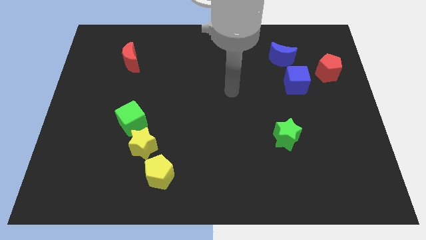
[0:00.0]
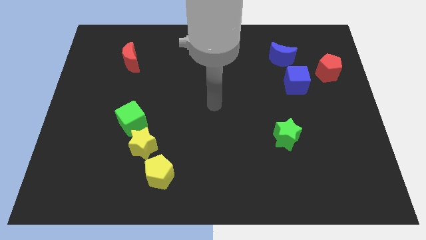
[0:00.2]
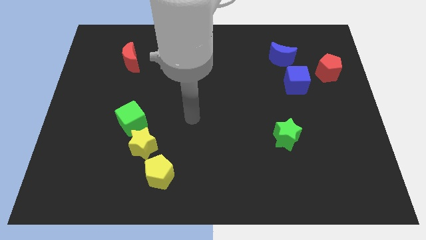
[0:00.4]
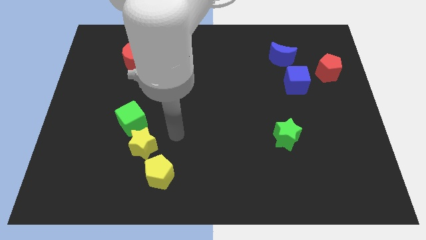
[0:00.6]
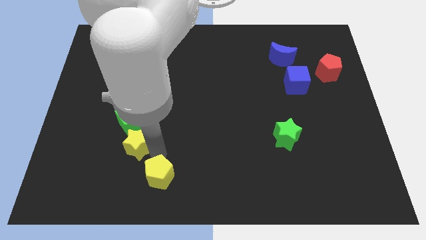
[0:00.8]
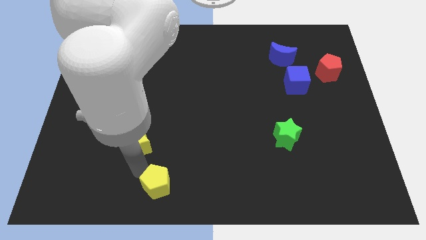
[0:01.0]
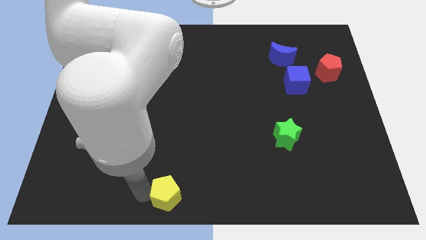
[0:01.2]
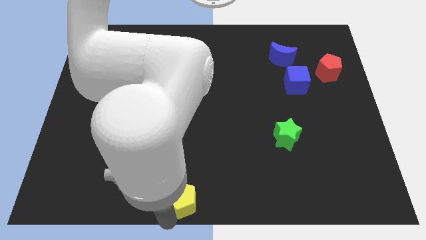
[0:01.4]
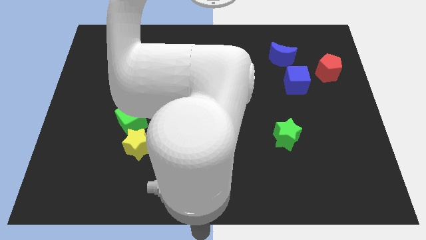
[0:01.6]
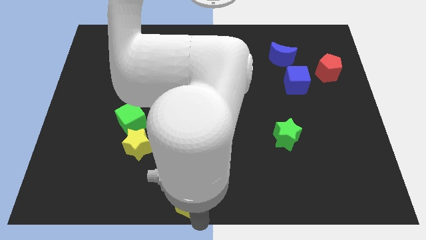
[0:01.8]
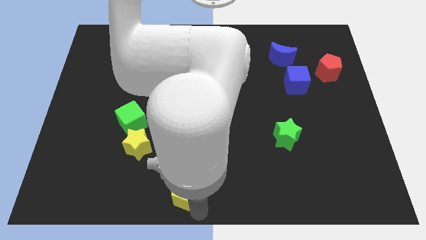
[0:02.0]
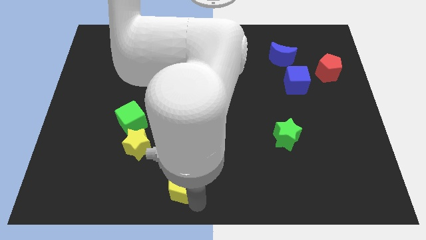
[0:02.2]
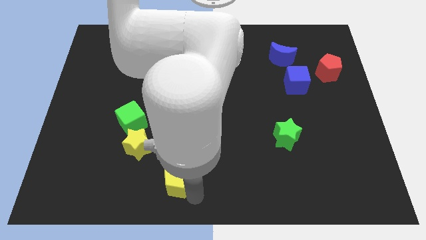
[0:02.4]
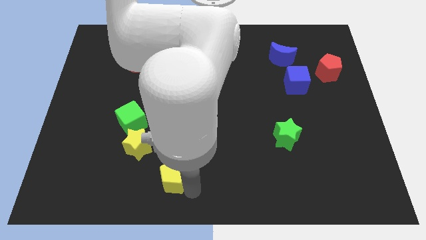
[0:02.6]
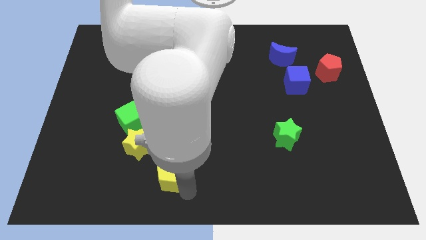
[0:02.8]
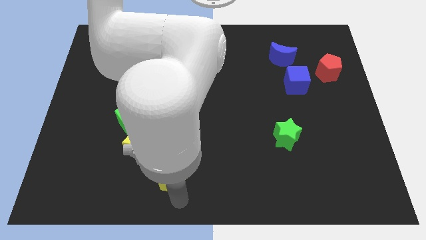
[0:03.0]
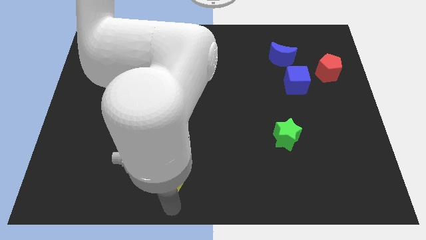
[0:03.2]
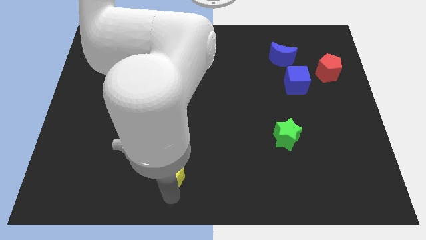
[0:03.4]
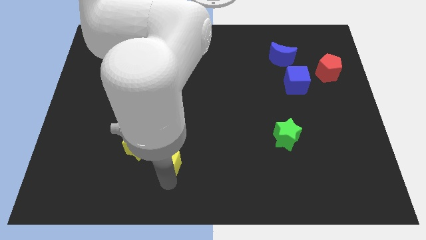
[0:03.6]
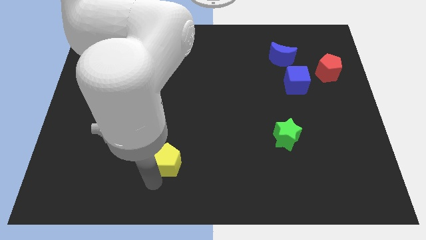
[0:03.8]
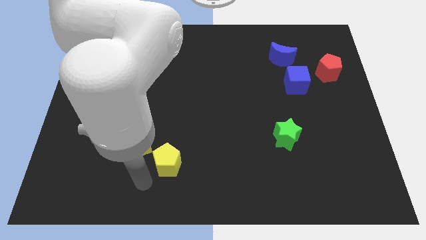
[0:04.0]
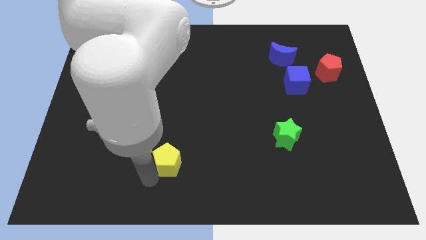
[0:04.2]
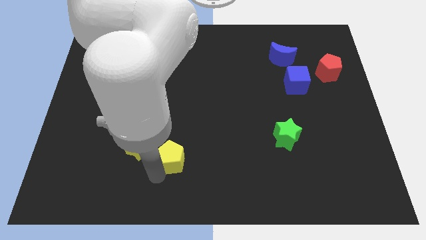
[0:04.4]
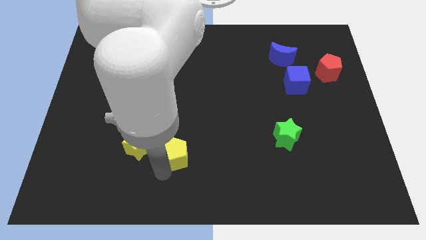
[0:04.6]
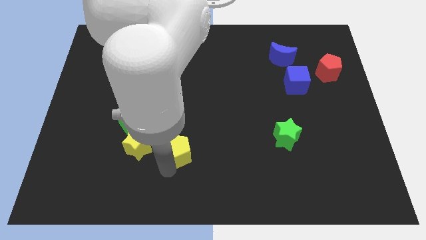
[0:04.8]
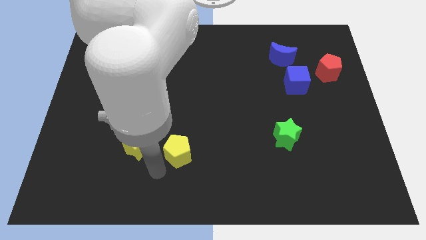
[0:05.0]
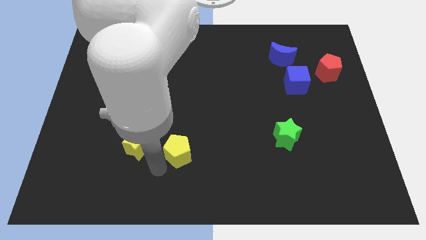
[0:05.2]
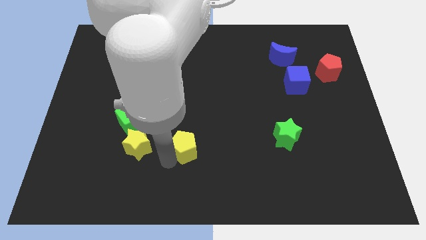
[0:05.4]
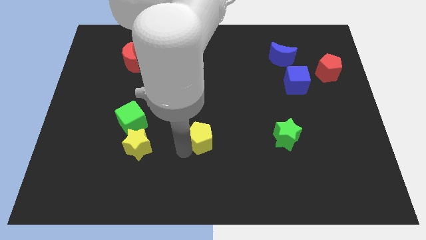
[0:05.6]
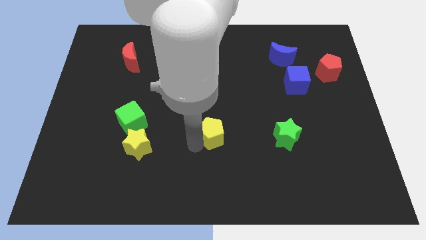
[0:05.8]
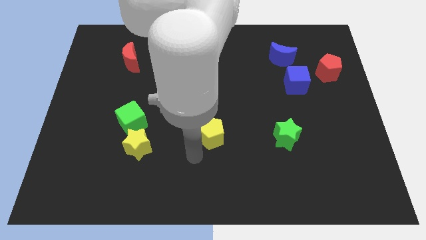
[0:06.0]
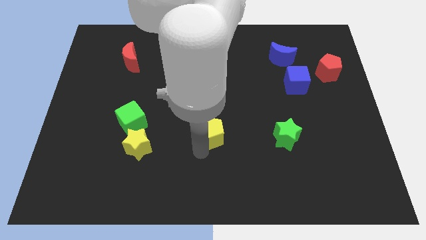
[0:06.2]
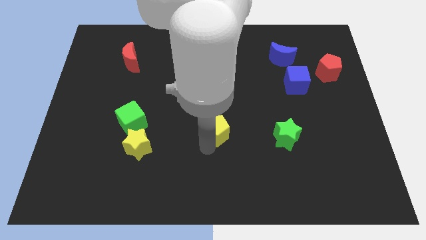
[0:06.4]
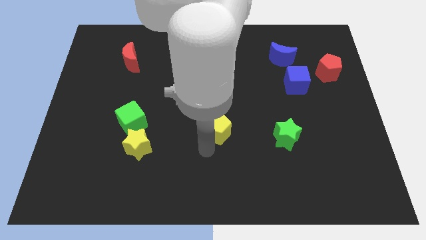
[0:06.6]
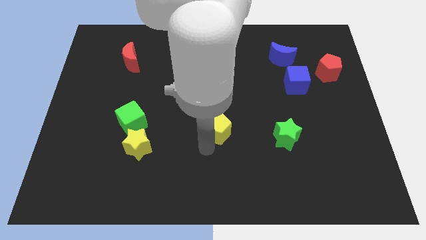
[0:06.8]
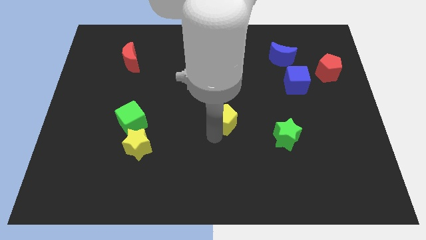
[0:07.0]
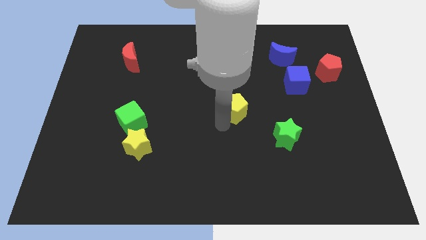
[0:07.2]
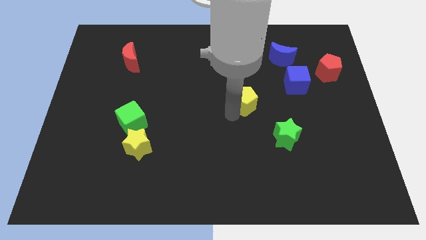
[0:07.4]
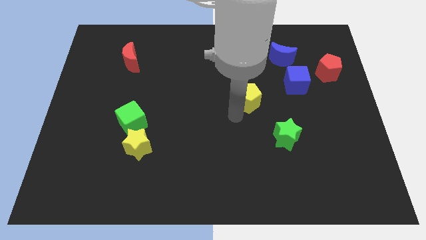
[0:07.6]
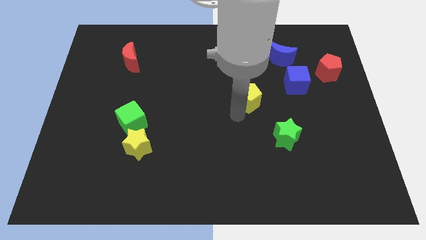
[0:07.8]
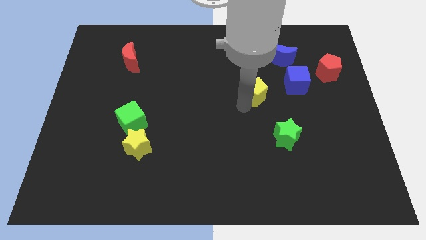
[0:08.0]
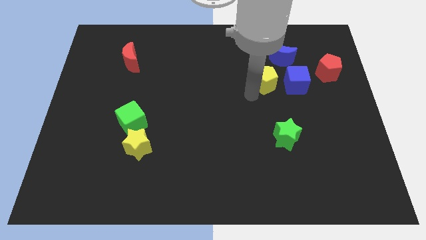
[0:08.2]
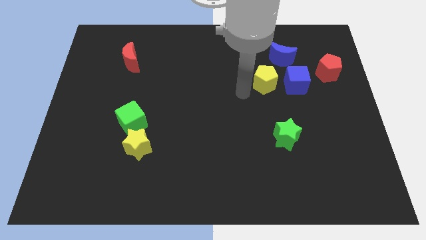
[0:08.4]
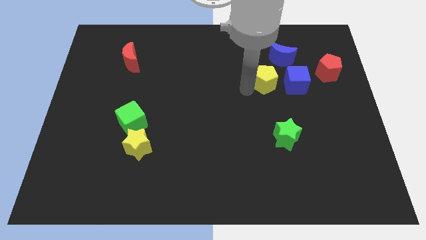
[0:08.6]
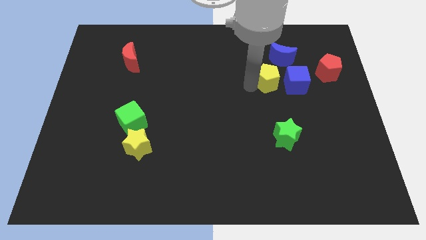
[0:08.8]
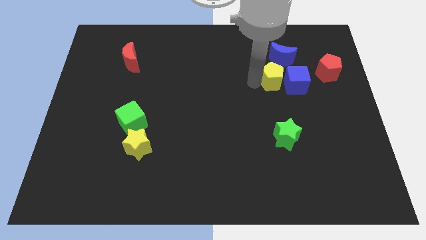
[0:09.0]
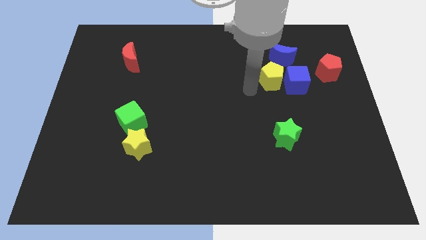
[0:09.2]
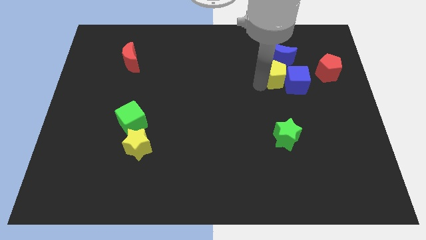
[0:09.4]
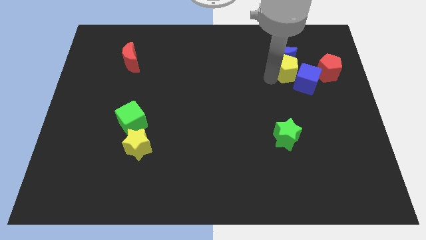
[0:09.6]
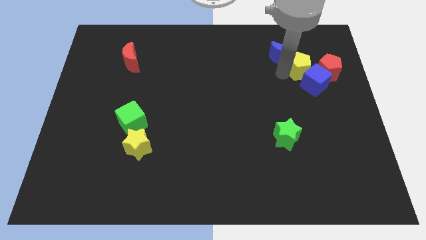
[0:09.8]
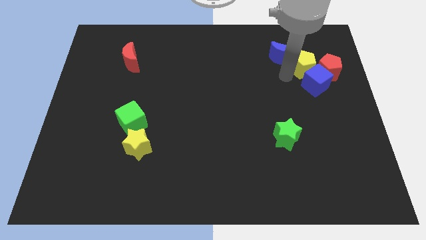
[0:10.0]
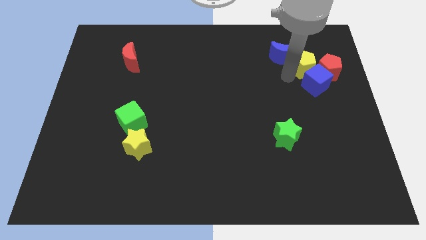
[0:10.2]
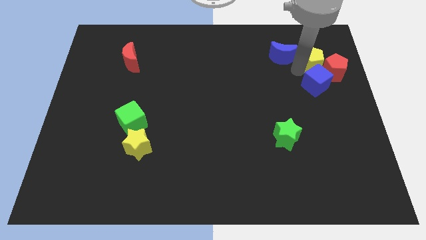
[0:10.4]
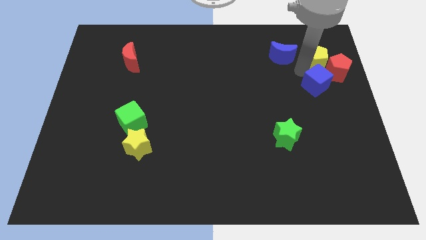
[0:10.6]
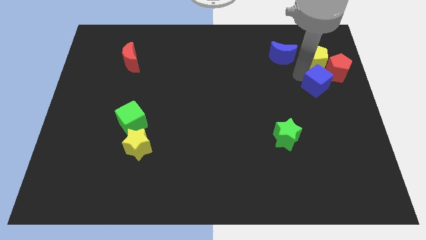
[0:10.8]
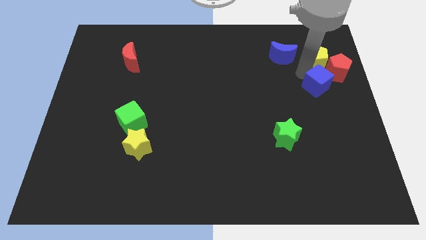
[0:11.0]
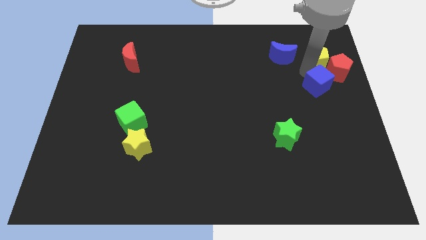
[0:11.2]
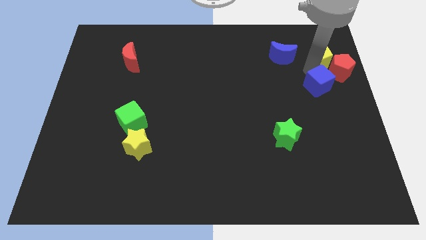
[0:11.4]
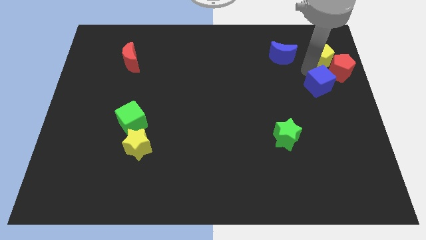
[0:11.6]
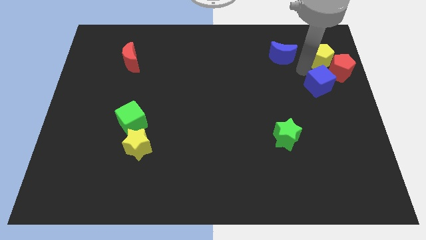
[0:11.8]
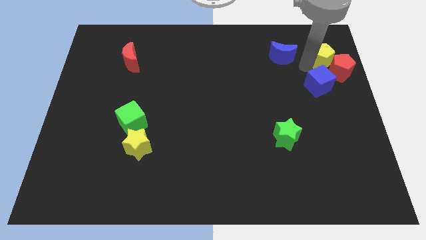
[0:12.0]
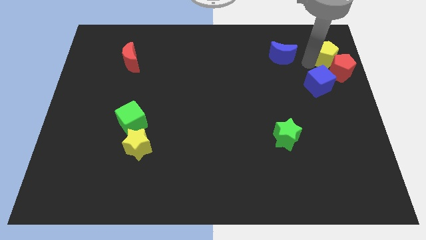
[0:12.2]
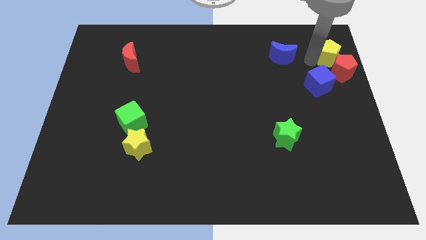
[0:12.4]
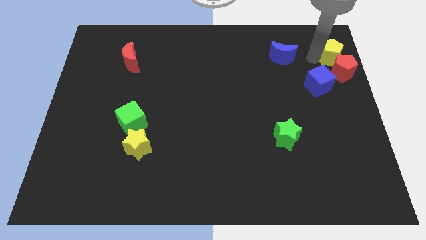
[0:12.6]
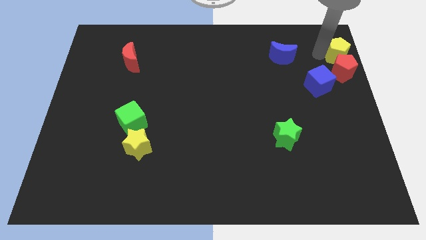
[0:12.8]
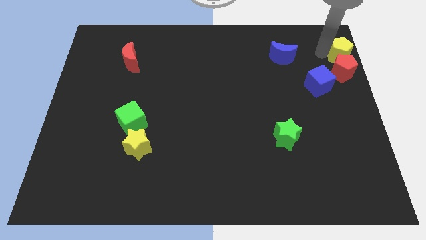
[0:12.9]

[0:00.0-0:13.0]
put the yellow pentagon to the top right
